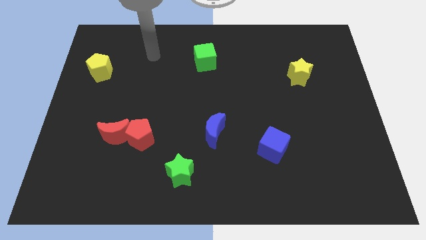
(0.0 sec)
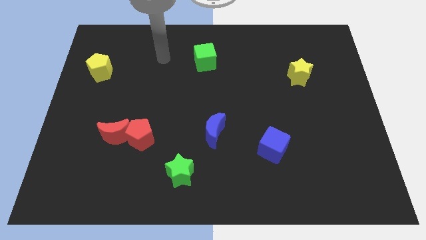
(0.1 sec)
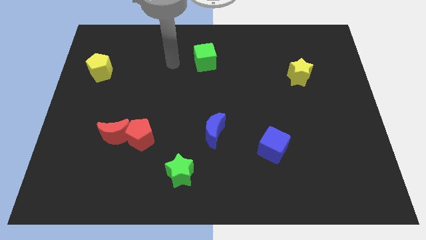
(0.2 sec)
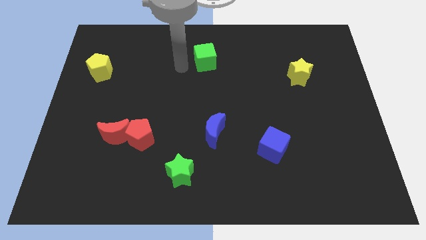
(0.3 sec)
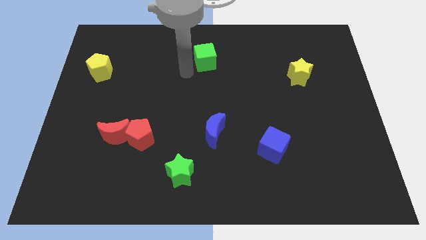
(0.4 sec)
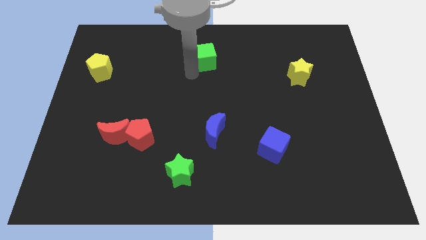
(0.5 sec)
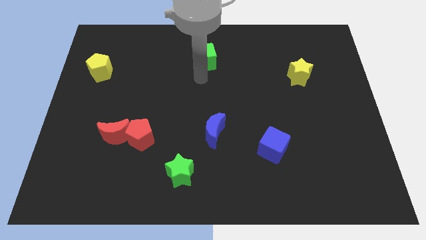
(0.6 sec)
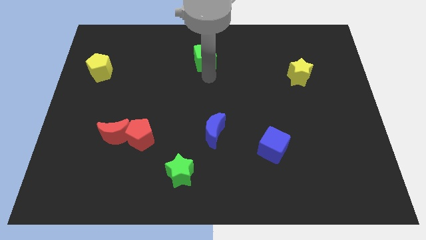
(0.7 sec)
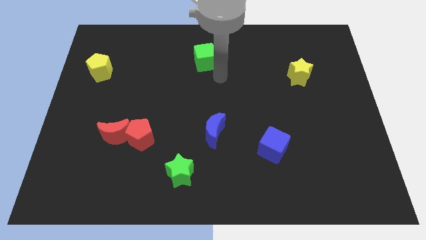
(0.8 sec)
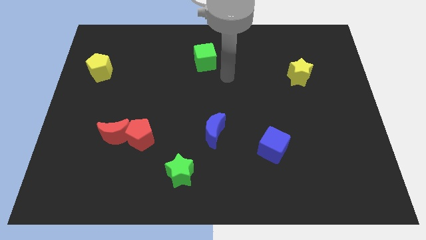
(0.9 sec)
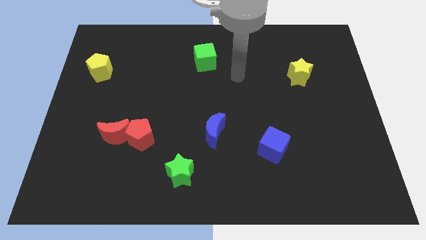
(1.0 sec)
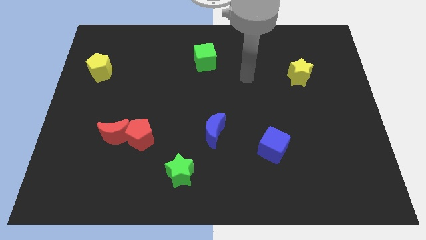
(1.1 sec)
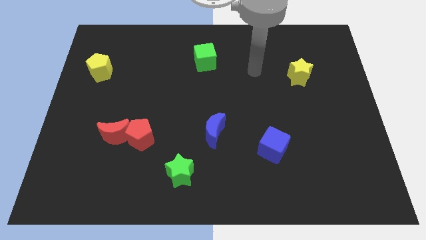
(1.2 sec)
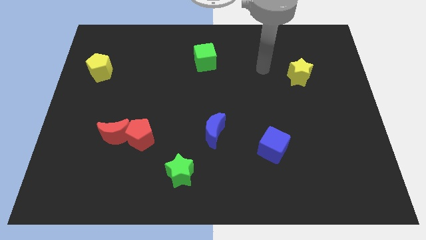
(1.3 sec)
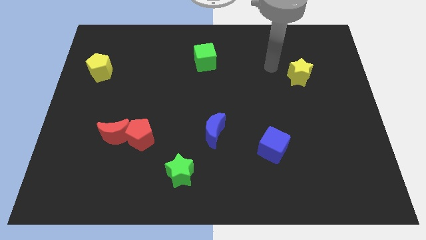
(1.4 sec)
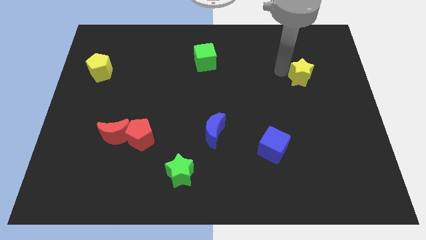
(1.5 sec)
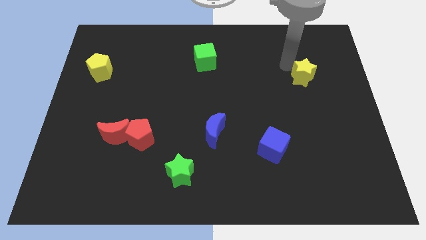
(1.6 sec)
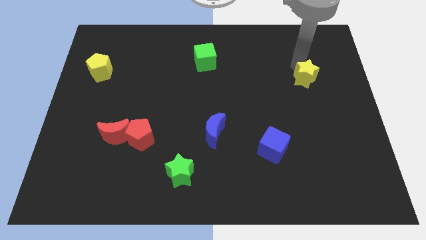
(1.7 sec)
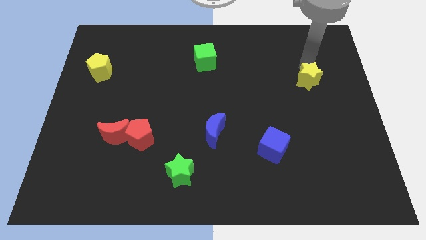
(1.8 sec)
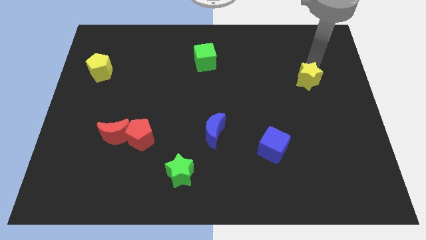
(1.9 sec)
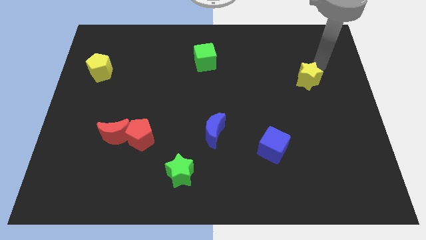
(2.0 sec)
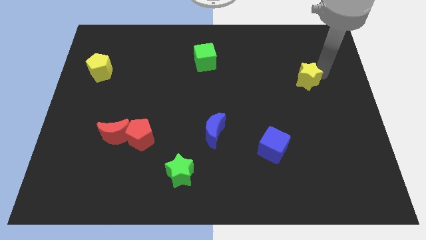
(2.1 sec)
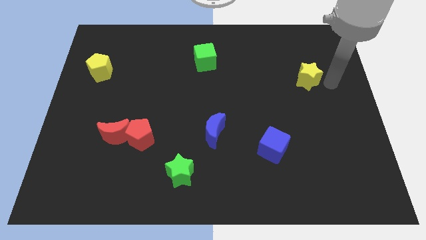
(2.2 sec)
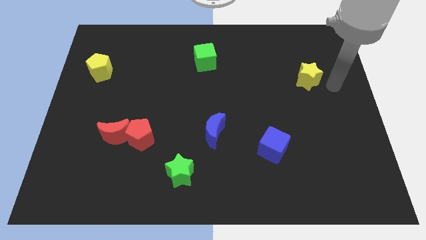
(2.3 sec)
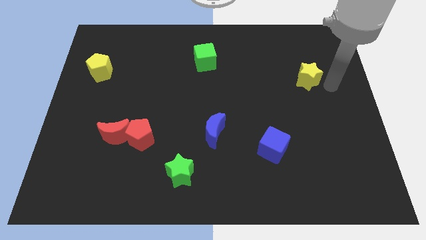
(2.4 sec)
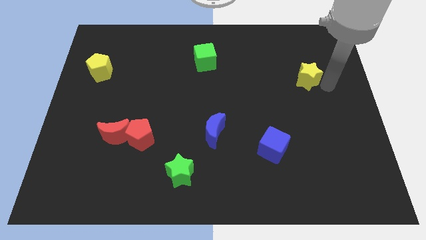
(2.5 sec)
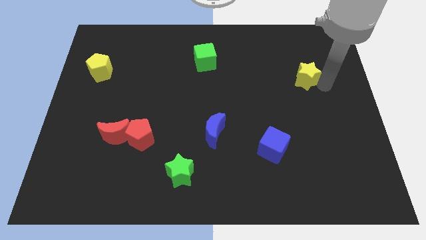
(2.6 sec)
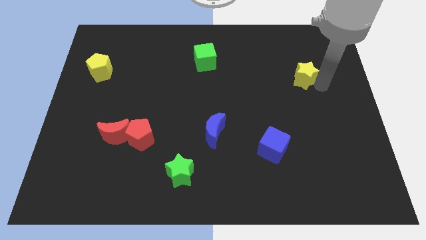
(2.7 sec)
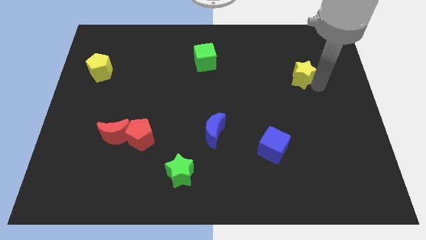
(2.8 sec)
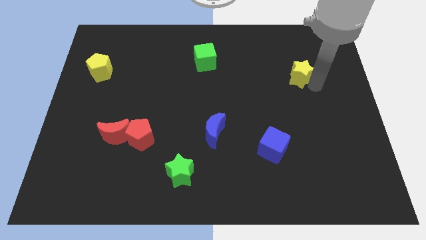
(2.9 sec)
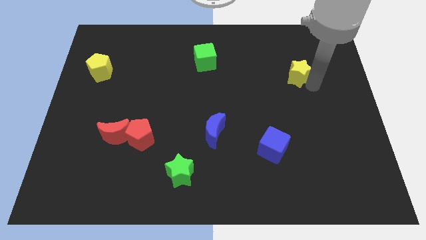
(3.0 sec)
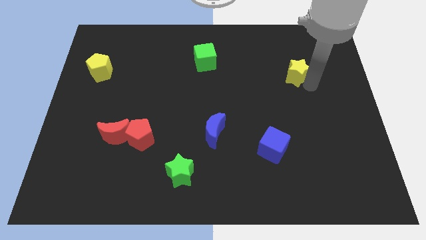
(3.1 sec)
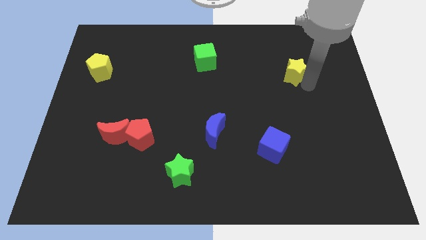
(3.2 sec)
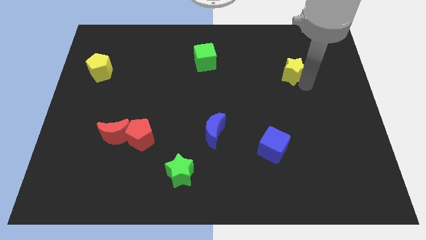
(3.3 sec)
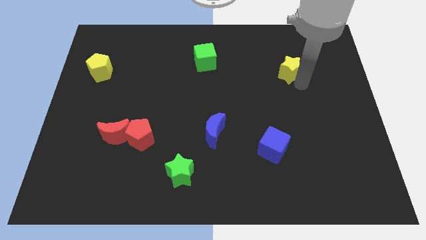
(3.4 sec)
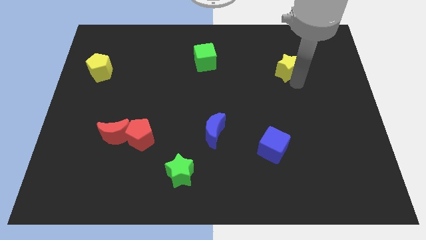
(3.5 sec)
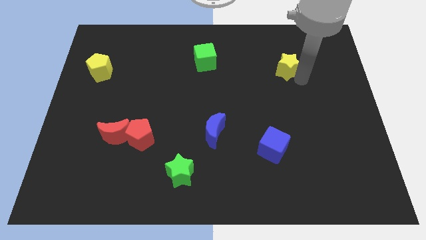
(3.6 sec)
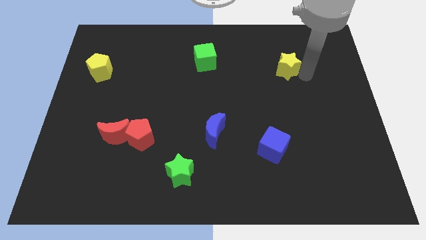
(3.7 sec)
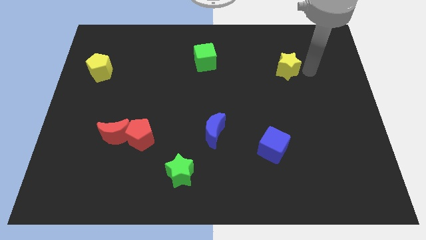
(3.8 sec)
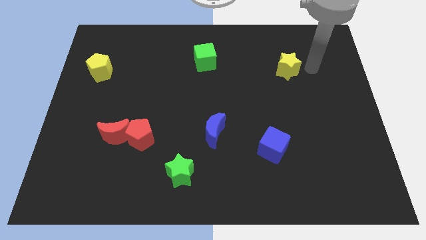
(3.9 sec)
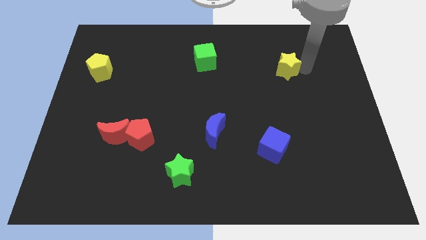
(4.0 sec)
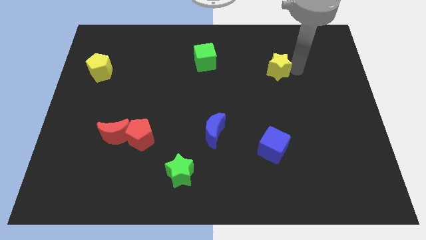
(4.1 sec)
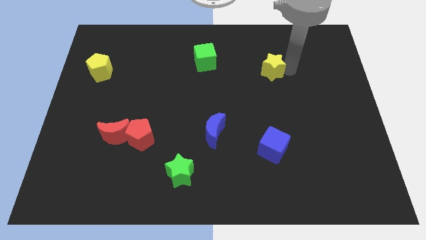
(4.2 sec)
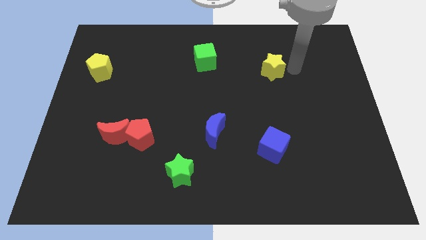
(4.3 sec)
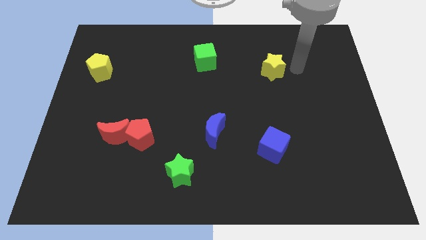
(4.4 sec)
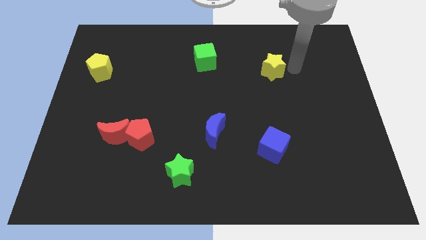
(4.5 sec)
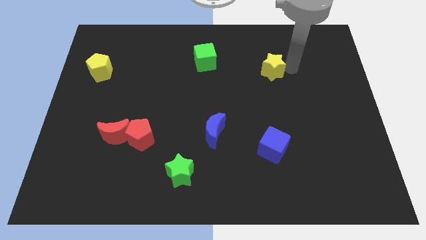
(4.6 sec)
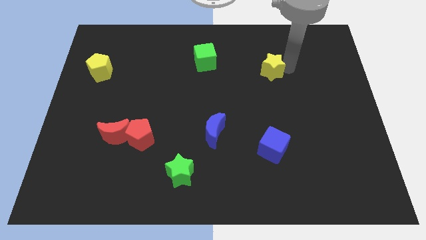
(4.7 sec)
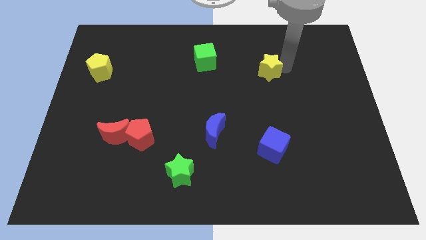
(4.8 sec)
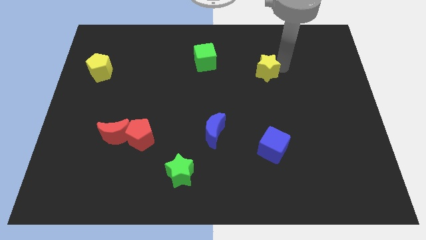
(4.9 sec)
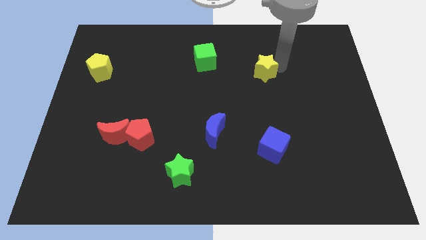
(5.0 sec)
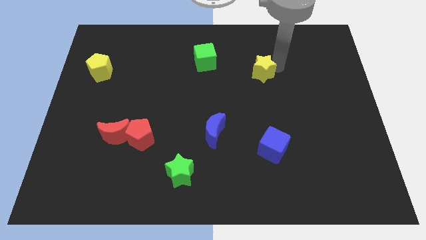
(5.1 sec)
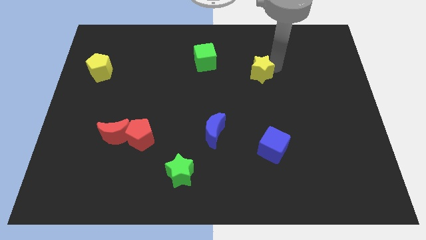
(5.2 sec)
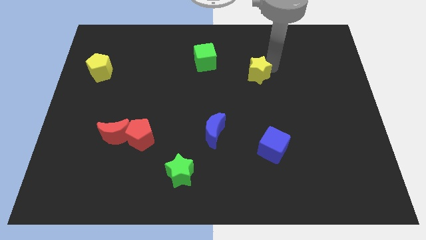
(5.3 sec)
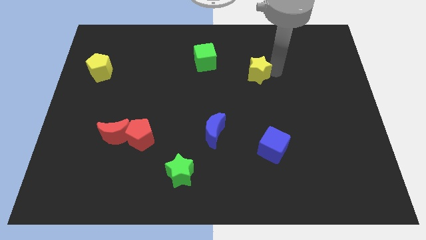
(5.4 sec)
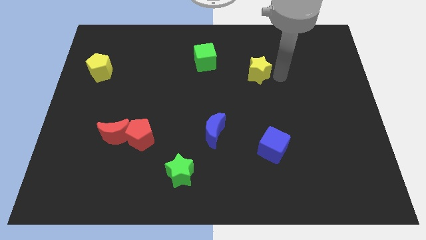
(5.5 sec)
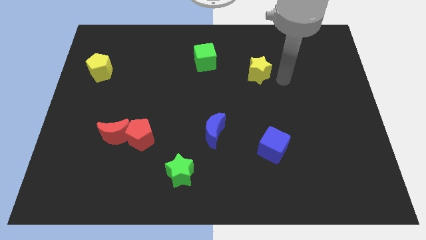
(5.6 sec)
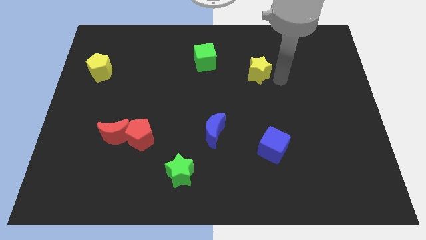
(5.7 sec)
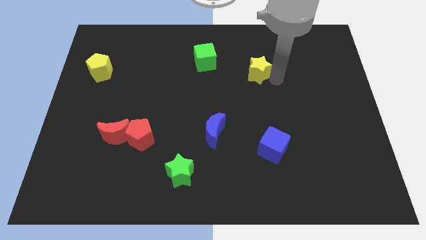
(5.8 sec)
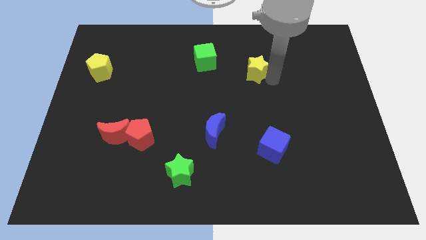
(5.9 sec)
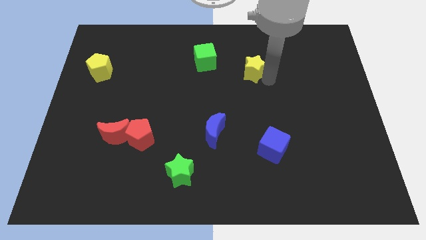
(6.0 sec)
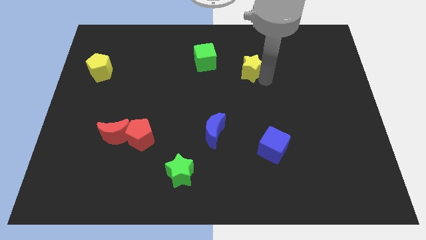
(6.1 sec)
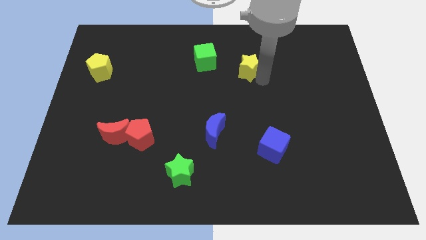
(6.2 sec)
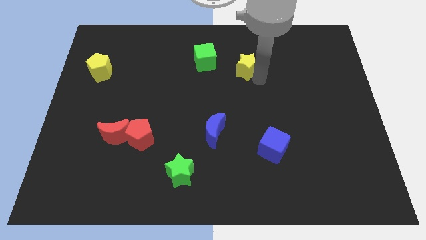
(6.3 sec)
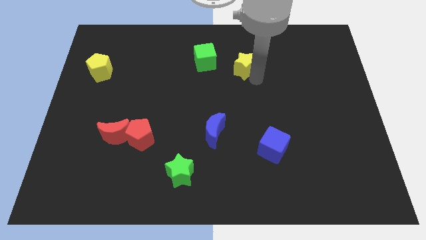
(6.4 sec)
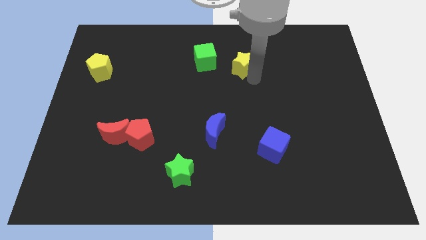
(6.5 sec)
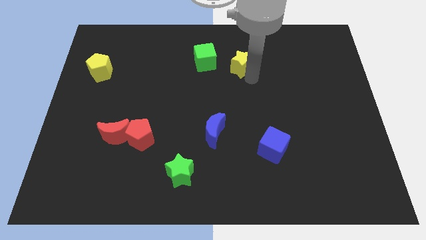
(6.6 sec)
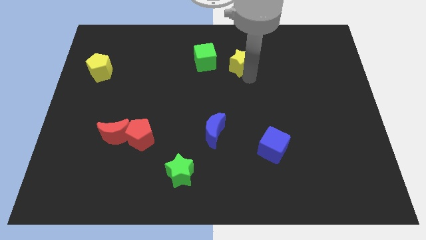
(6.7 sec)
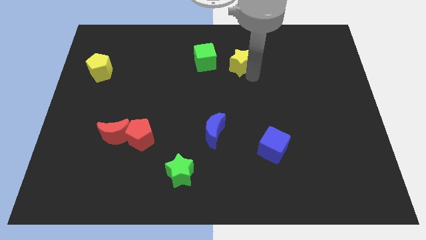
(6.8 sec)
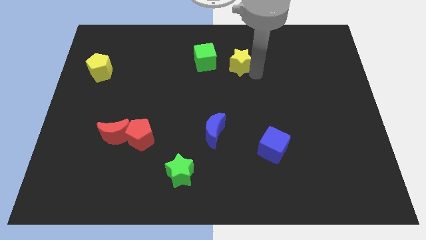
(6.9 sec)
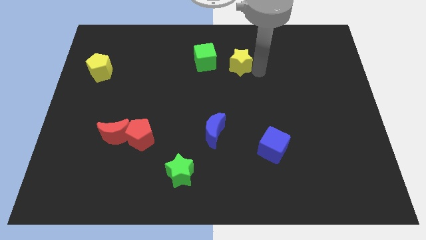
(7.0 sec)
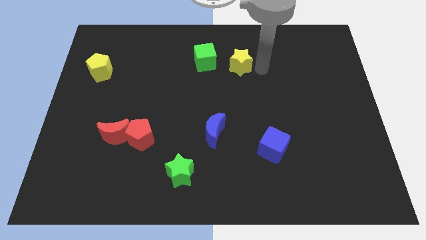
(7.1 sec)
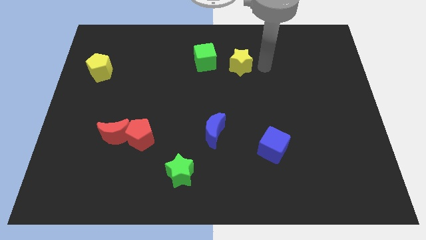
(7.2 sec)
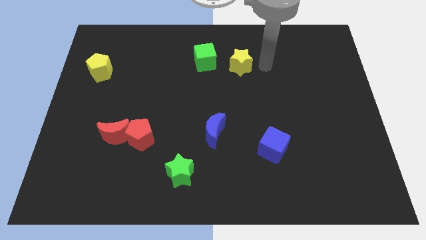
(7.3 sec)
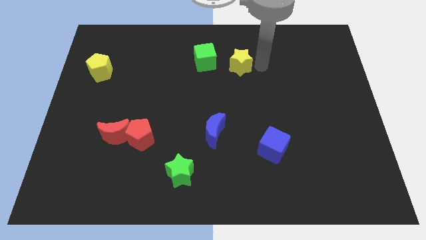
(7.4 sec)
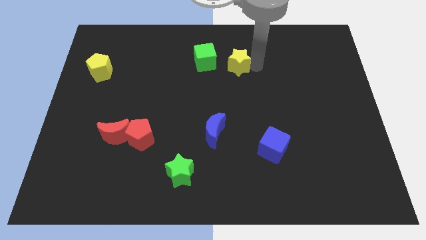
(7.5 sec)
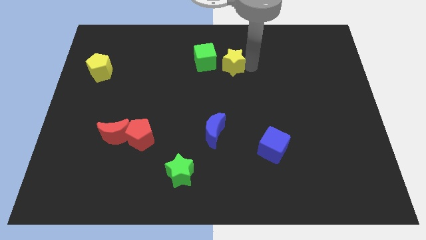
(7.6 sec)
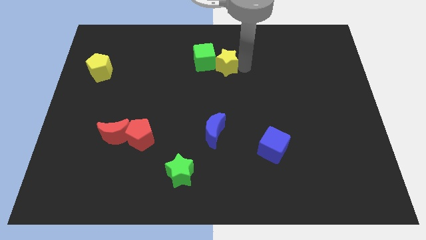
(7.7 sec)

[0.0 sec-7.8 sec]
move the yellow star to the green cube
